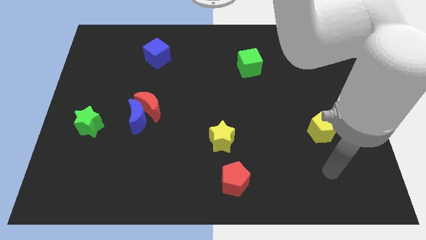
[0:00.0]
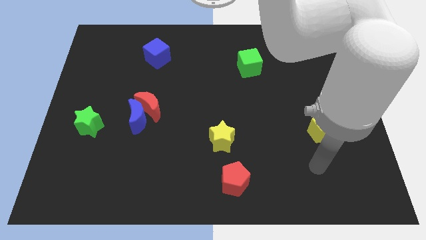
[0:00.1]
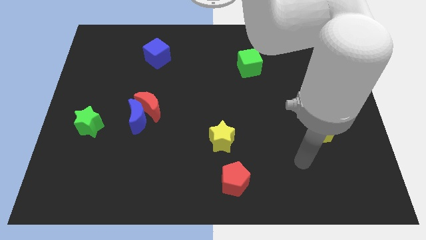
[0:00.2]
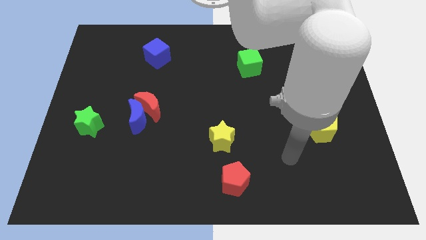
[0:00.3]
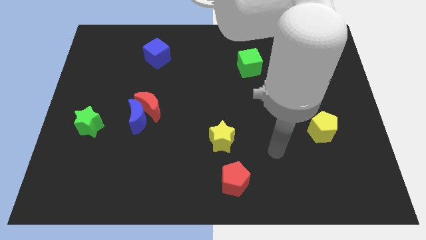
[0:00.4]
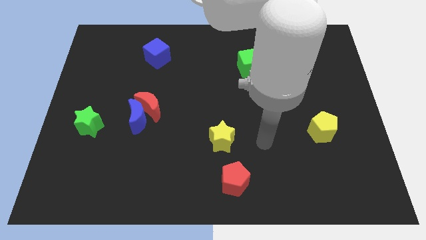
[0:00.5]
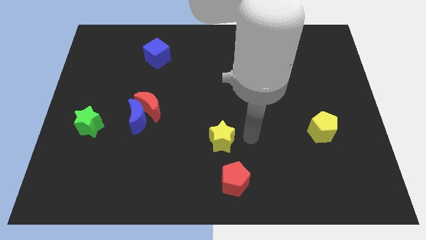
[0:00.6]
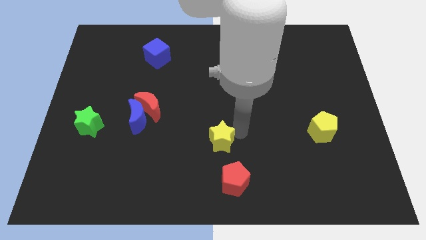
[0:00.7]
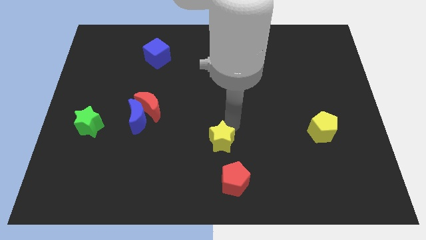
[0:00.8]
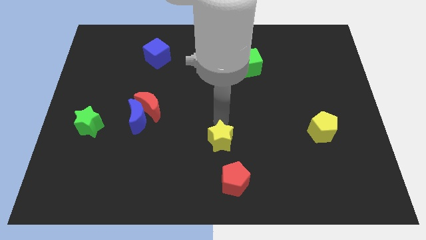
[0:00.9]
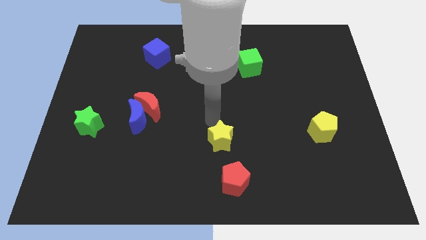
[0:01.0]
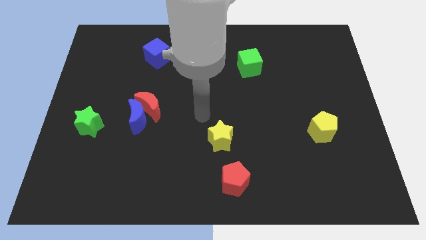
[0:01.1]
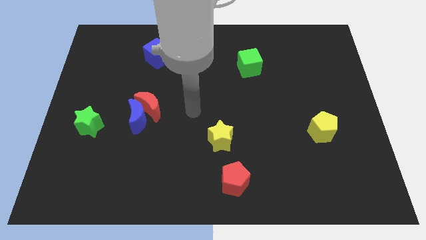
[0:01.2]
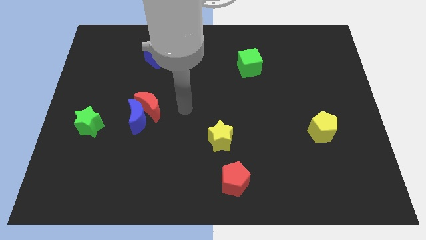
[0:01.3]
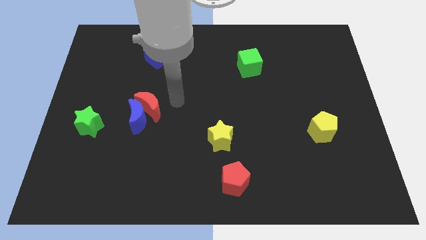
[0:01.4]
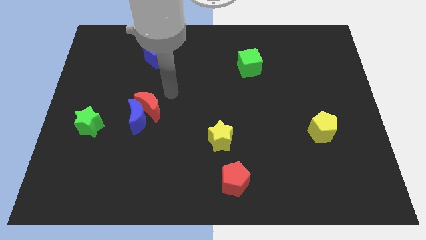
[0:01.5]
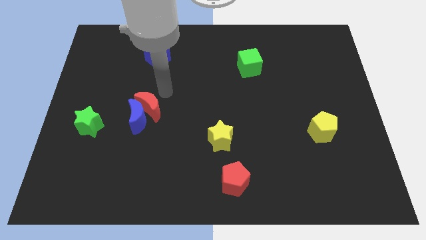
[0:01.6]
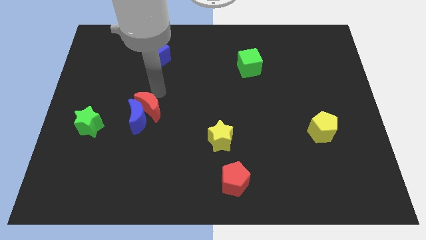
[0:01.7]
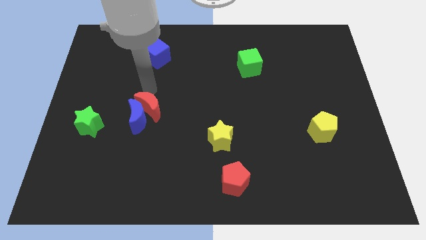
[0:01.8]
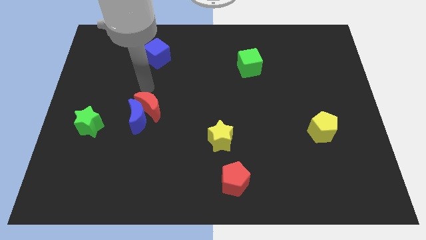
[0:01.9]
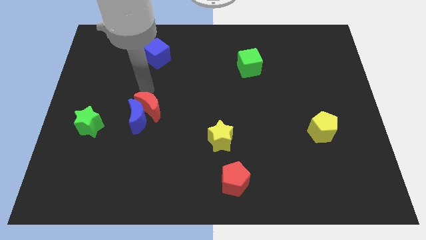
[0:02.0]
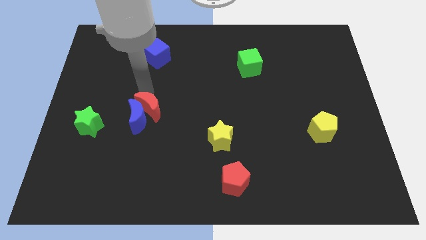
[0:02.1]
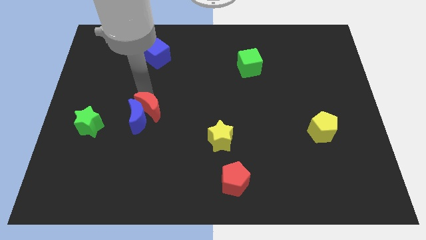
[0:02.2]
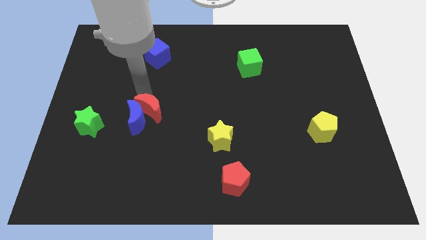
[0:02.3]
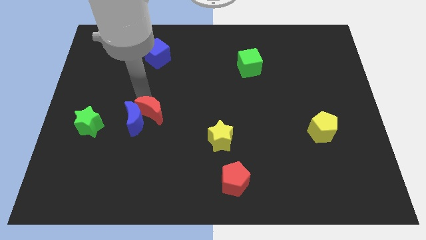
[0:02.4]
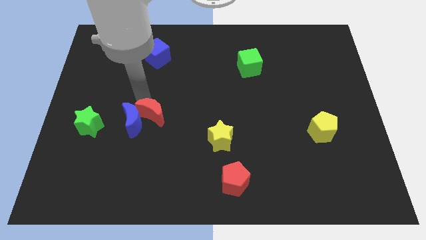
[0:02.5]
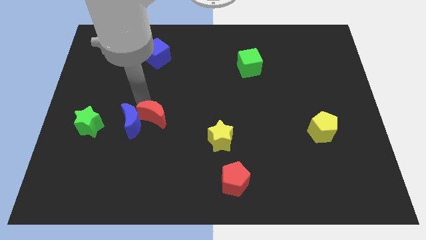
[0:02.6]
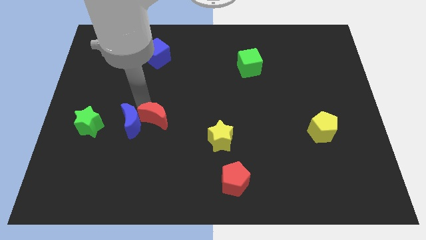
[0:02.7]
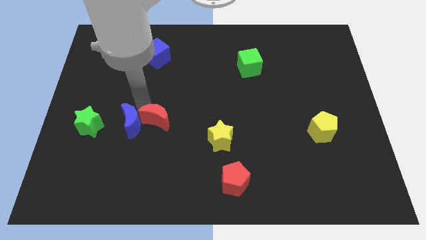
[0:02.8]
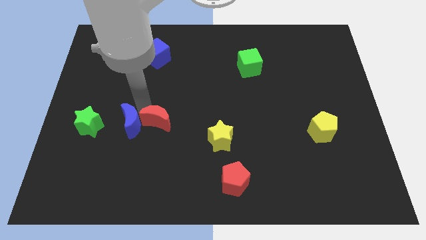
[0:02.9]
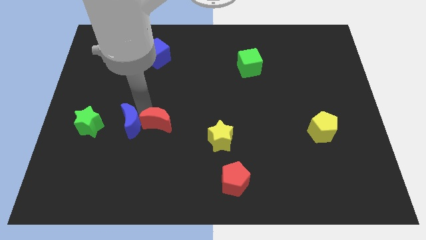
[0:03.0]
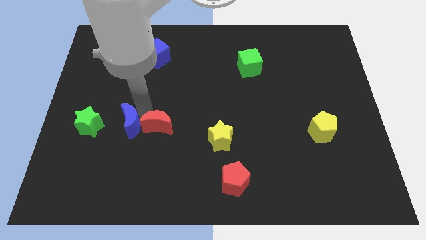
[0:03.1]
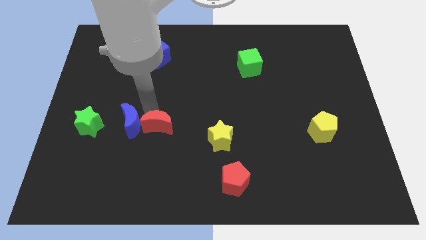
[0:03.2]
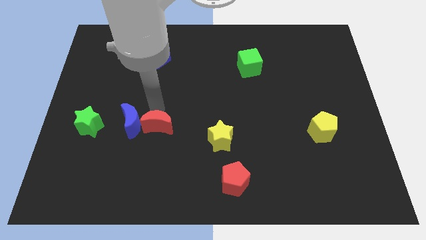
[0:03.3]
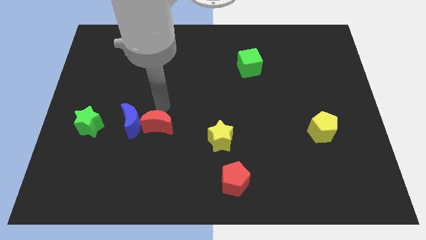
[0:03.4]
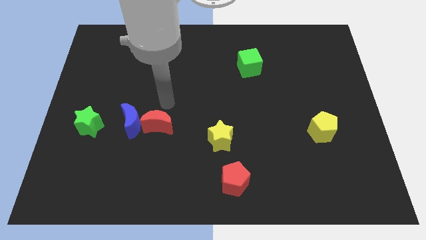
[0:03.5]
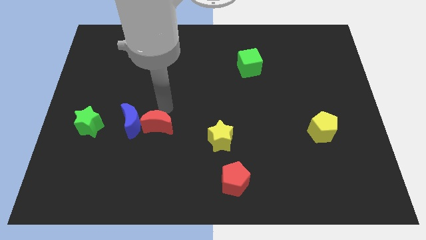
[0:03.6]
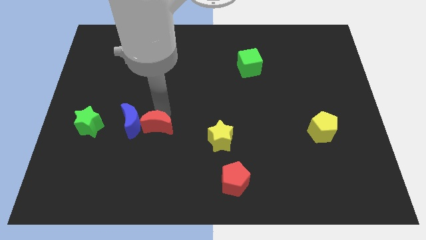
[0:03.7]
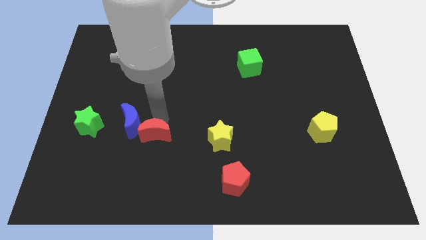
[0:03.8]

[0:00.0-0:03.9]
move the red moon a little down

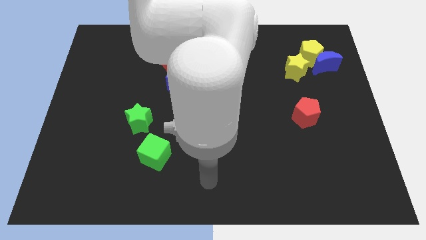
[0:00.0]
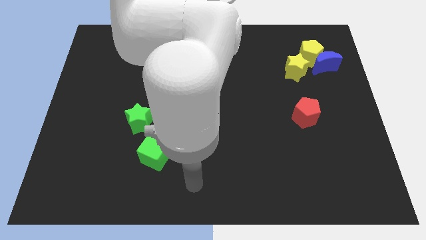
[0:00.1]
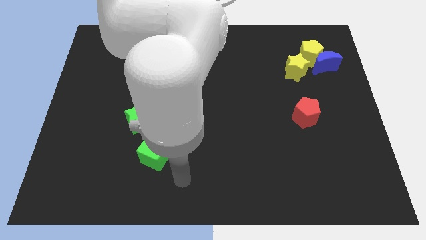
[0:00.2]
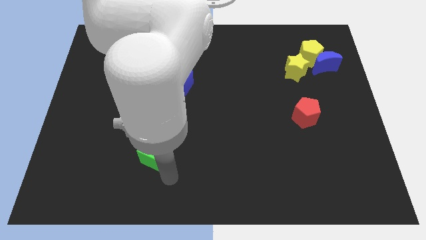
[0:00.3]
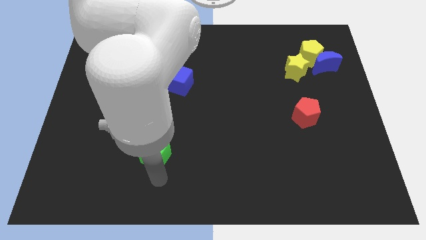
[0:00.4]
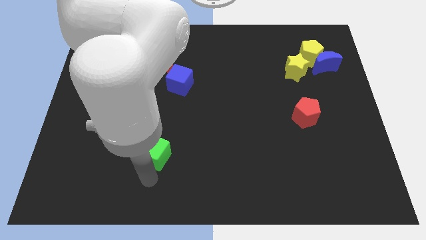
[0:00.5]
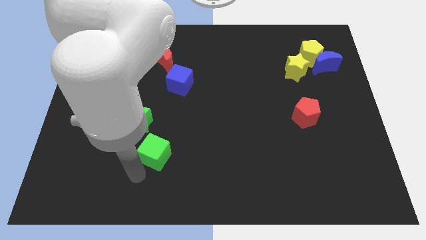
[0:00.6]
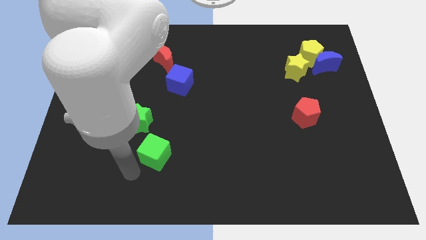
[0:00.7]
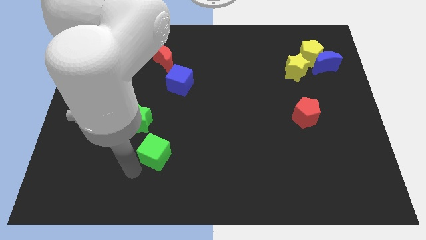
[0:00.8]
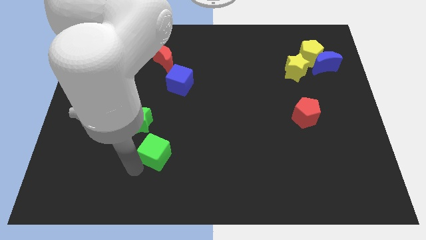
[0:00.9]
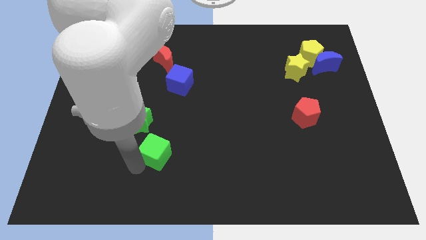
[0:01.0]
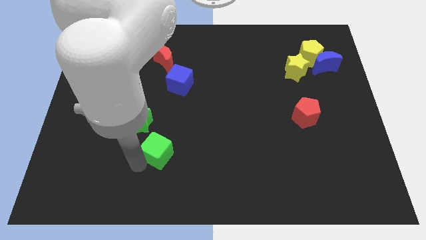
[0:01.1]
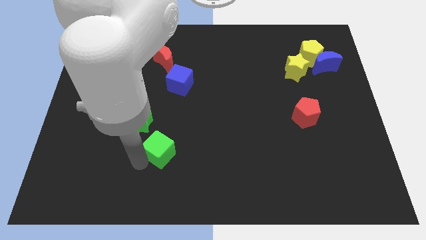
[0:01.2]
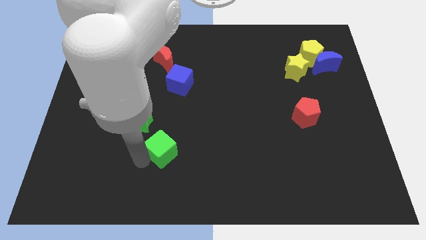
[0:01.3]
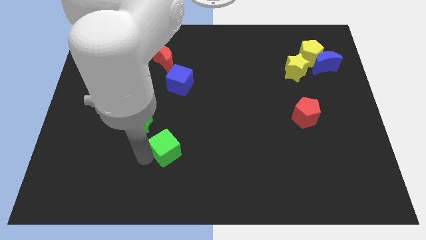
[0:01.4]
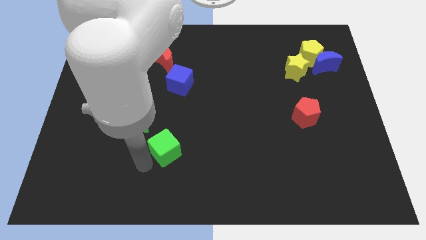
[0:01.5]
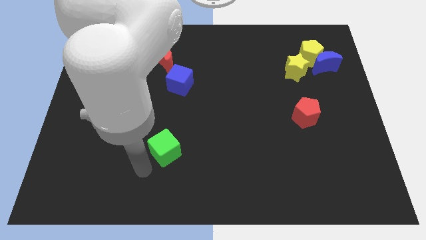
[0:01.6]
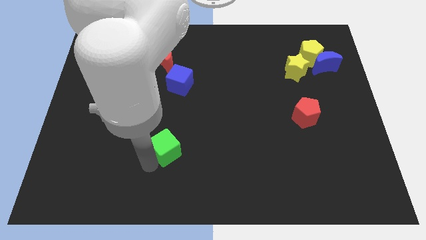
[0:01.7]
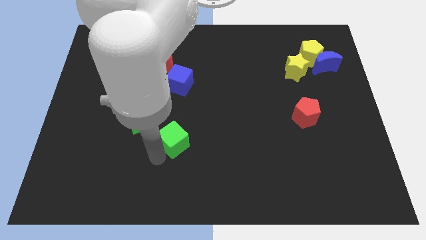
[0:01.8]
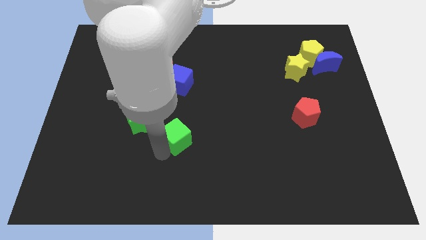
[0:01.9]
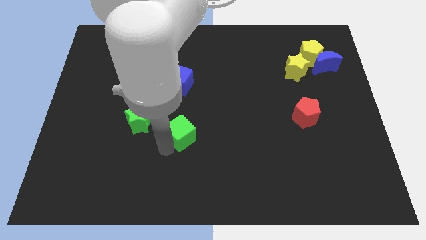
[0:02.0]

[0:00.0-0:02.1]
move the green cube slightly diagonally upwards and right

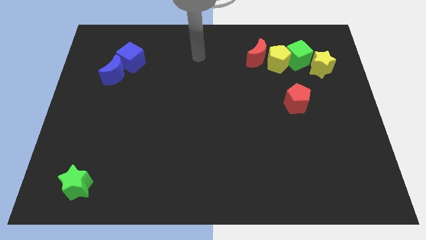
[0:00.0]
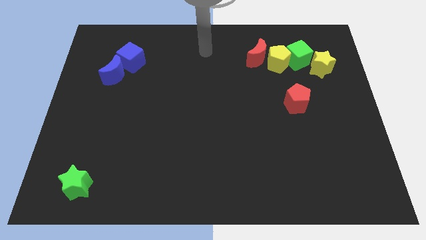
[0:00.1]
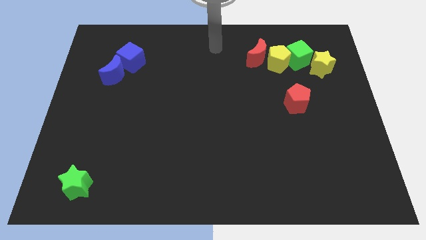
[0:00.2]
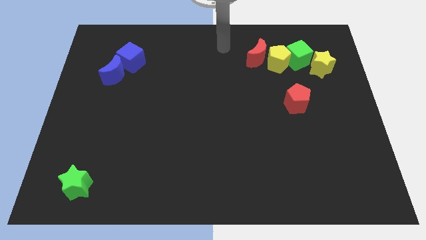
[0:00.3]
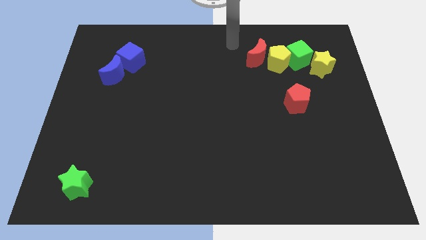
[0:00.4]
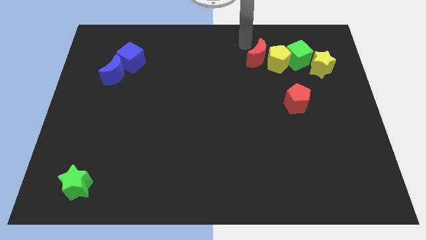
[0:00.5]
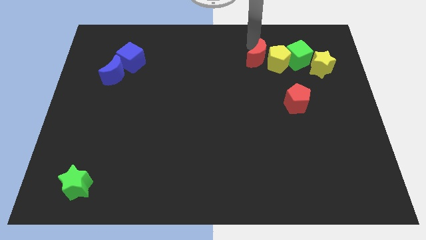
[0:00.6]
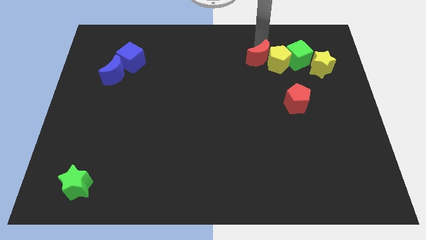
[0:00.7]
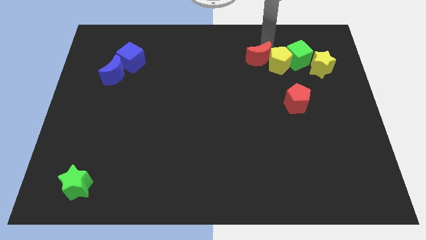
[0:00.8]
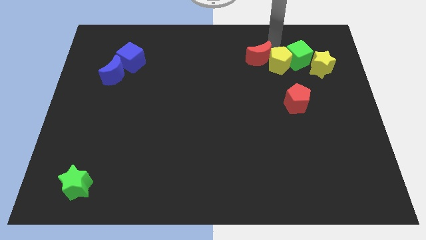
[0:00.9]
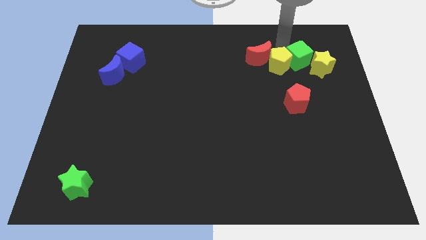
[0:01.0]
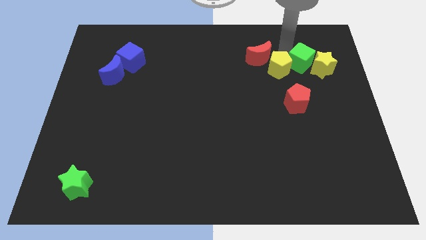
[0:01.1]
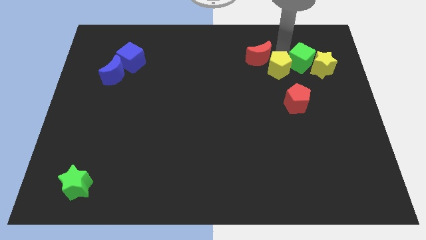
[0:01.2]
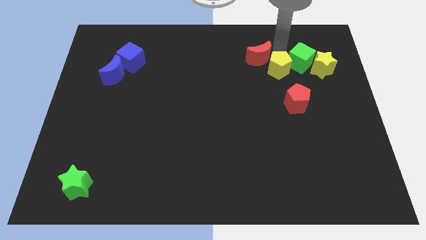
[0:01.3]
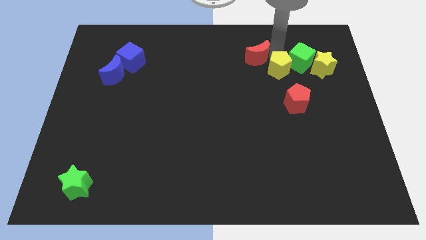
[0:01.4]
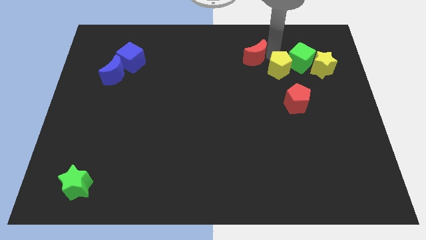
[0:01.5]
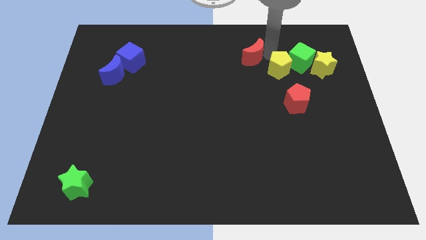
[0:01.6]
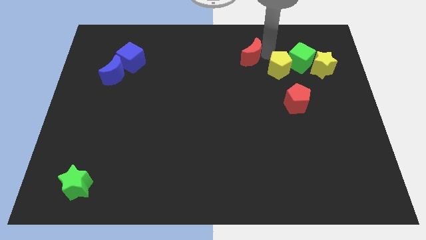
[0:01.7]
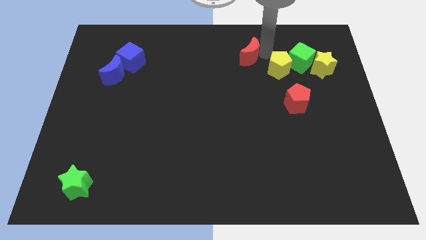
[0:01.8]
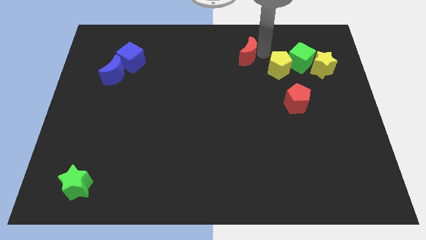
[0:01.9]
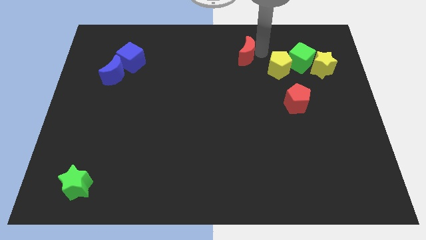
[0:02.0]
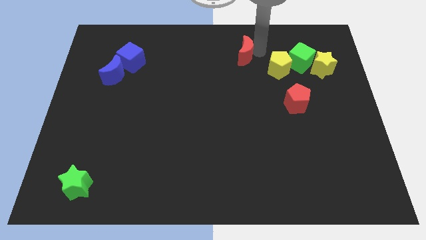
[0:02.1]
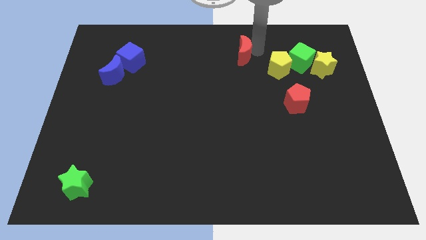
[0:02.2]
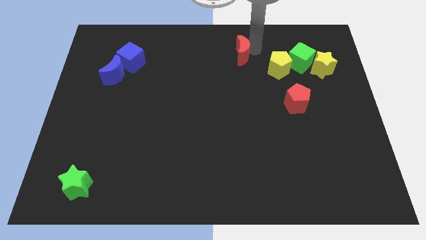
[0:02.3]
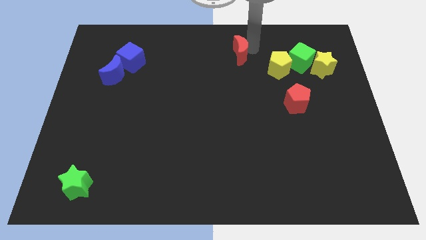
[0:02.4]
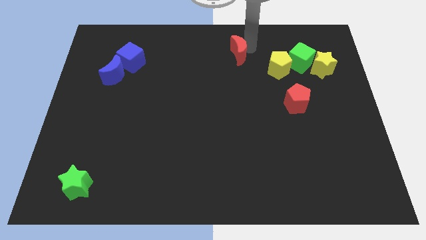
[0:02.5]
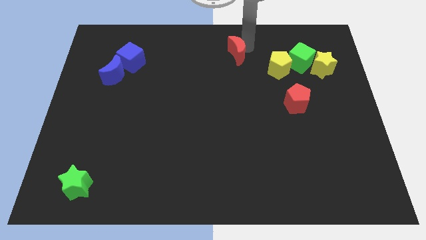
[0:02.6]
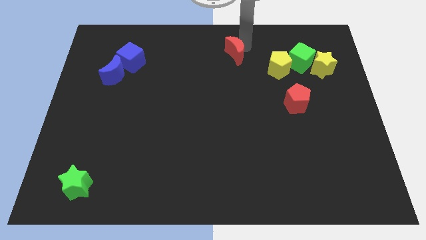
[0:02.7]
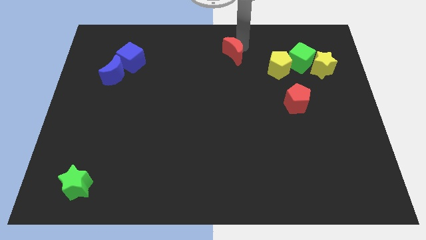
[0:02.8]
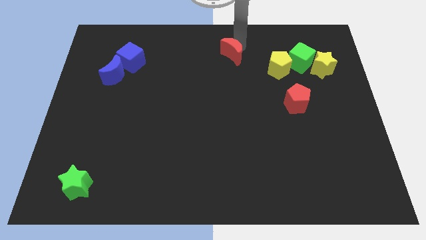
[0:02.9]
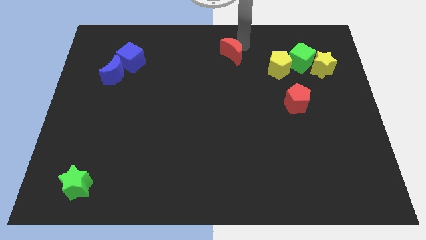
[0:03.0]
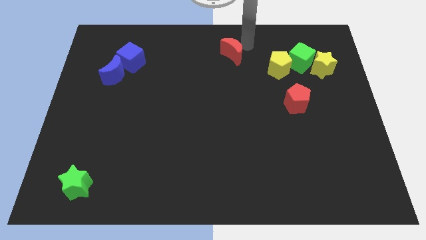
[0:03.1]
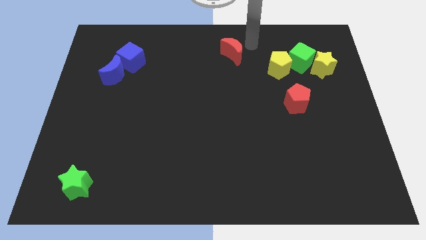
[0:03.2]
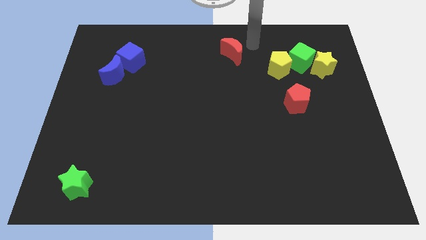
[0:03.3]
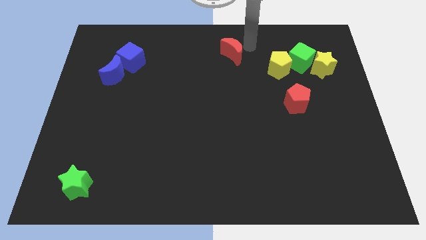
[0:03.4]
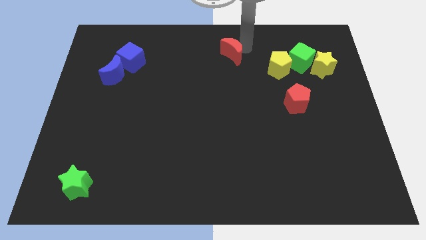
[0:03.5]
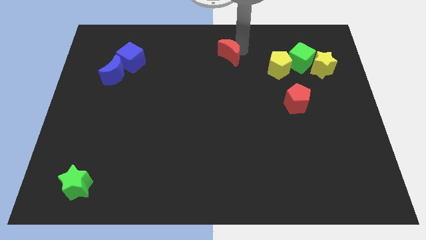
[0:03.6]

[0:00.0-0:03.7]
slide the red moon left a bit
